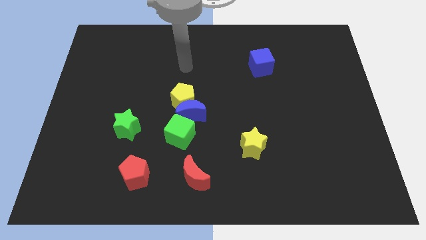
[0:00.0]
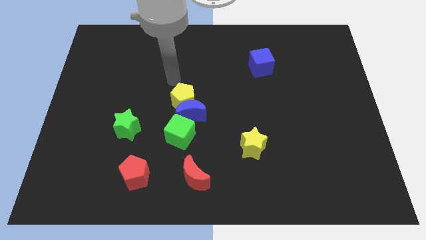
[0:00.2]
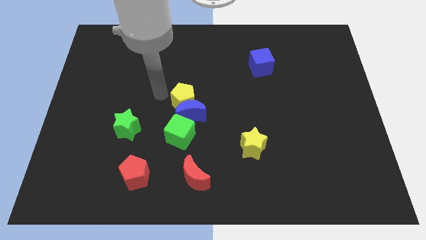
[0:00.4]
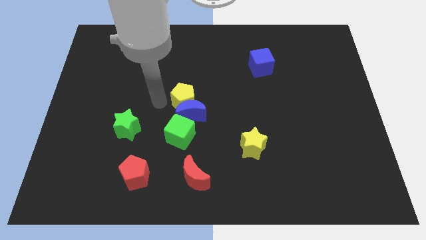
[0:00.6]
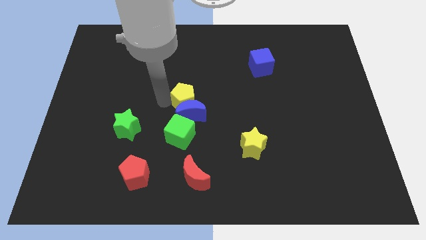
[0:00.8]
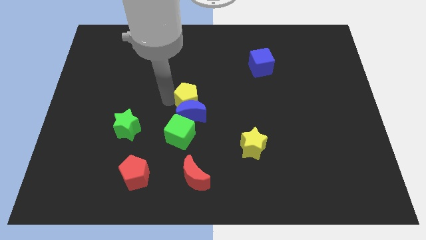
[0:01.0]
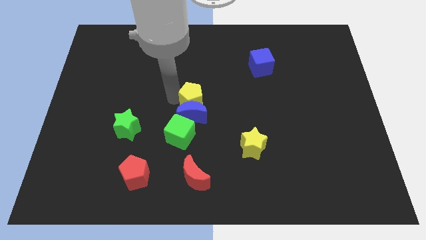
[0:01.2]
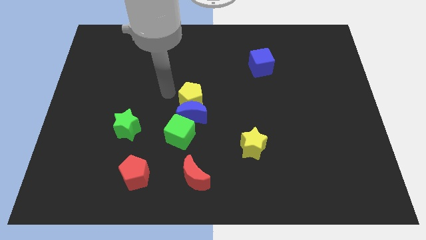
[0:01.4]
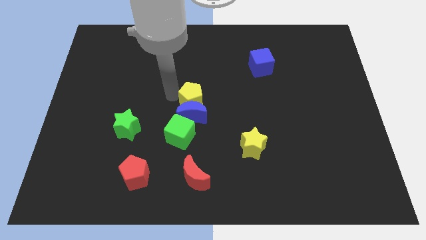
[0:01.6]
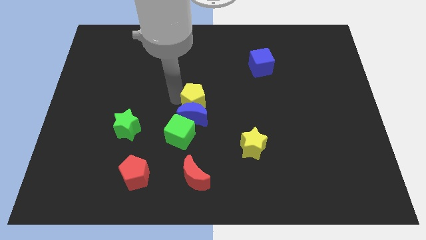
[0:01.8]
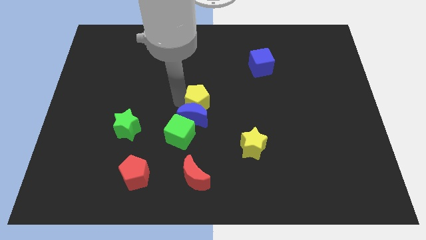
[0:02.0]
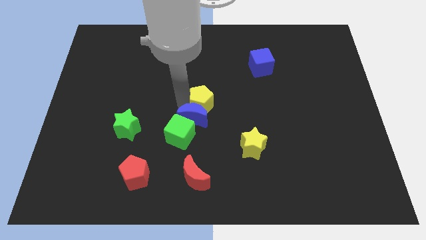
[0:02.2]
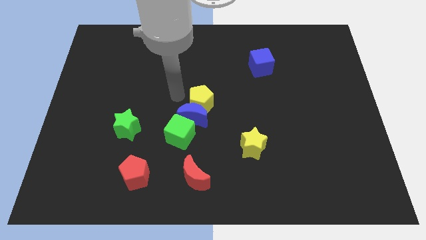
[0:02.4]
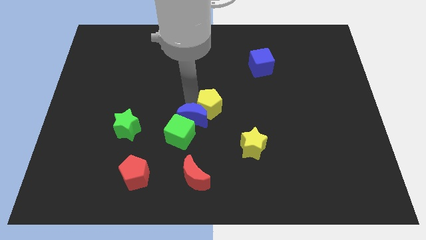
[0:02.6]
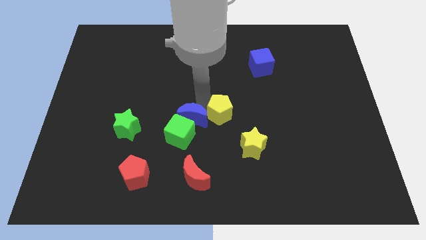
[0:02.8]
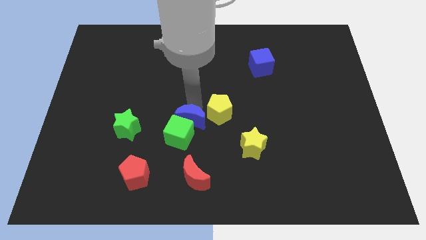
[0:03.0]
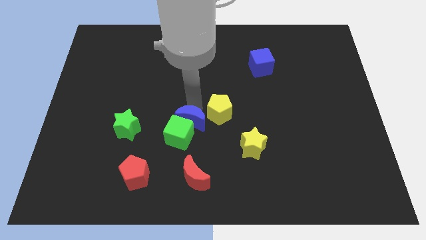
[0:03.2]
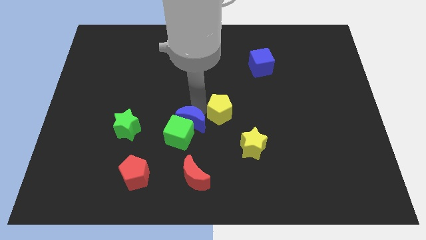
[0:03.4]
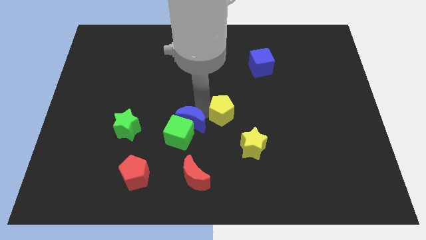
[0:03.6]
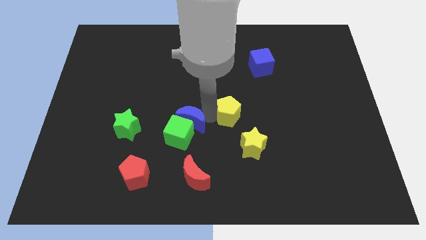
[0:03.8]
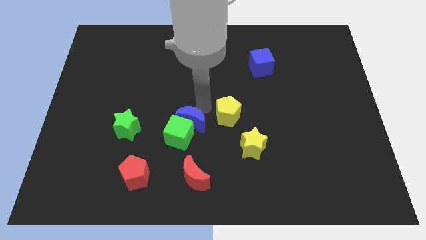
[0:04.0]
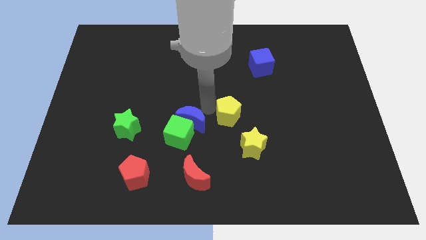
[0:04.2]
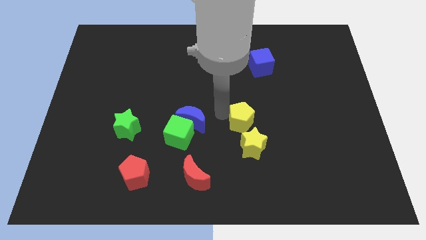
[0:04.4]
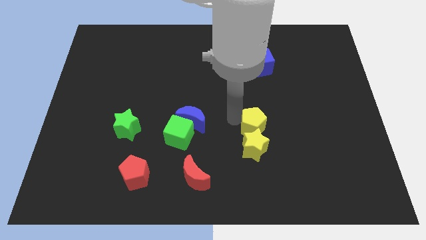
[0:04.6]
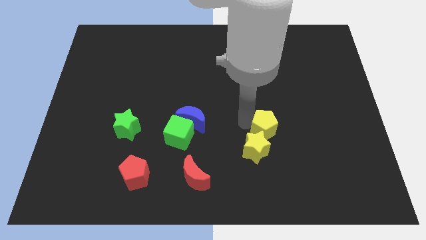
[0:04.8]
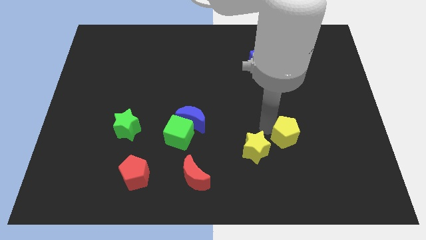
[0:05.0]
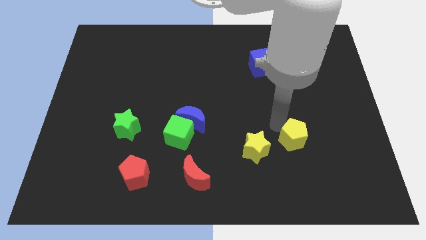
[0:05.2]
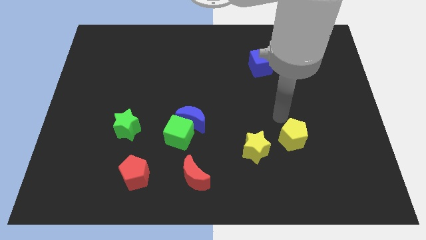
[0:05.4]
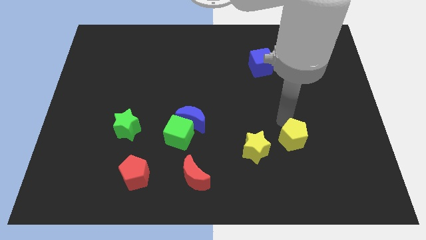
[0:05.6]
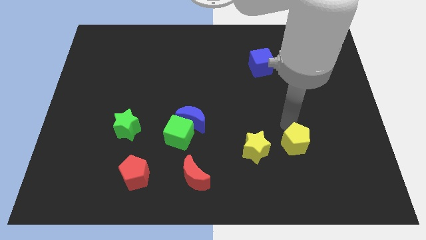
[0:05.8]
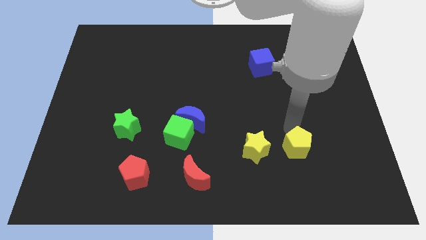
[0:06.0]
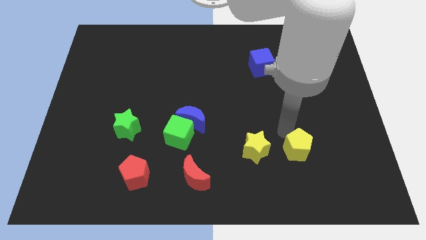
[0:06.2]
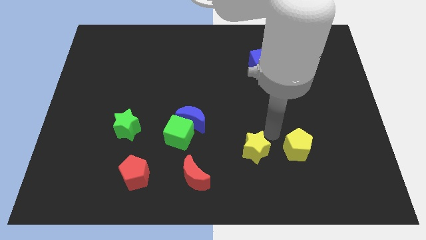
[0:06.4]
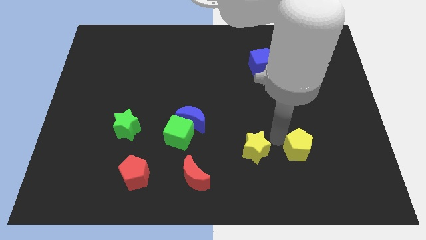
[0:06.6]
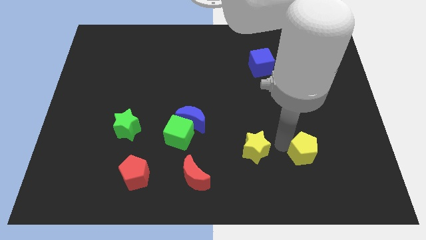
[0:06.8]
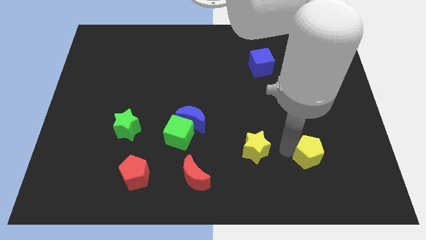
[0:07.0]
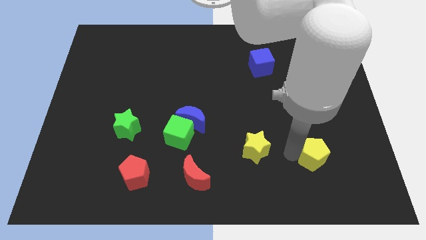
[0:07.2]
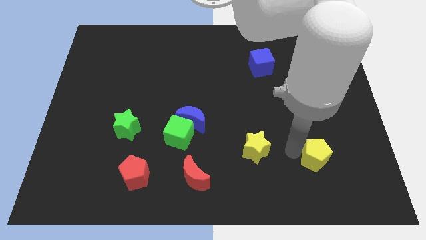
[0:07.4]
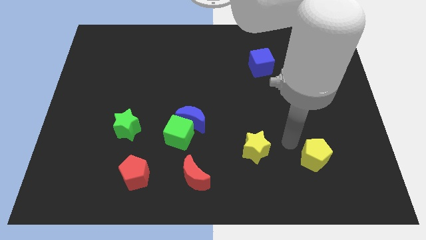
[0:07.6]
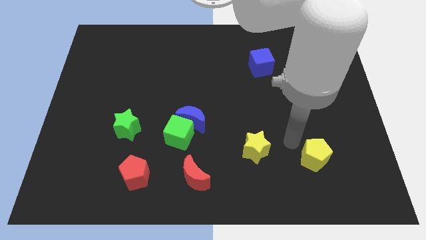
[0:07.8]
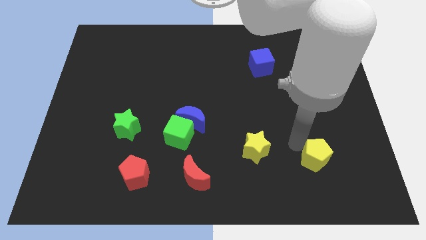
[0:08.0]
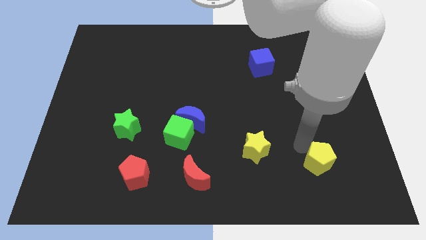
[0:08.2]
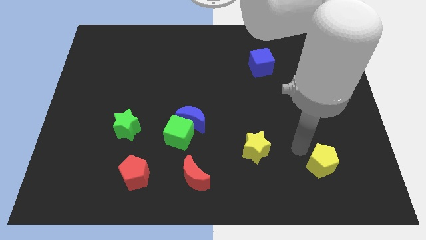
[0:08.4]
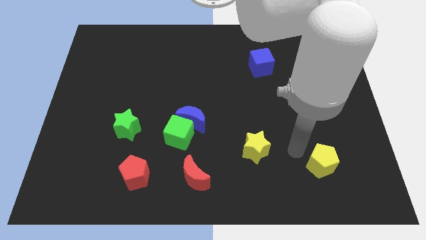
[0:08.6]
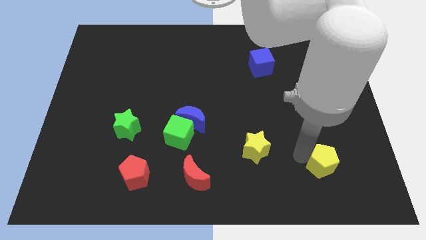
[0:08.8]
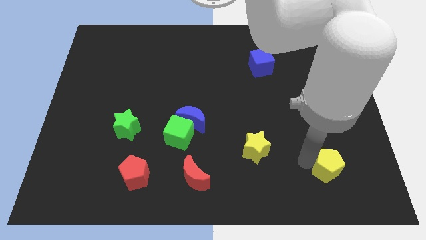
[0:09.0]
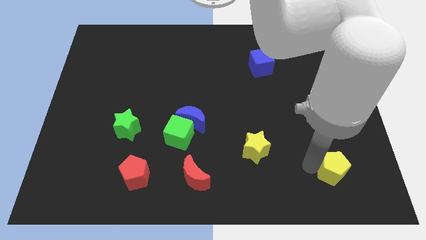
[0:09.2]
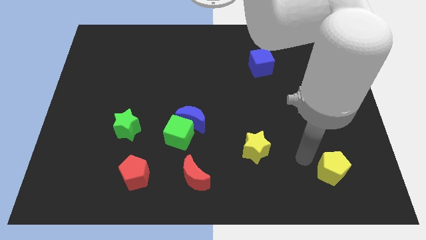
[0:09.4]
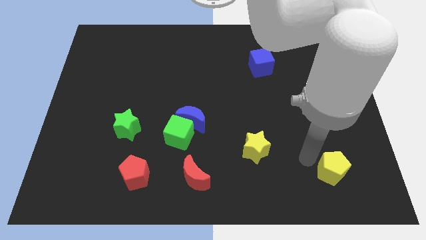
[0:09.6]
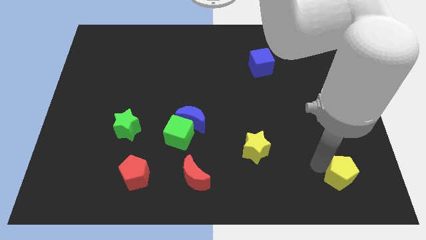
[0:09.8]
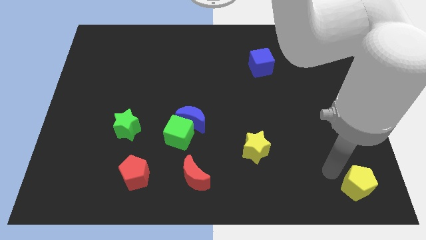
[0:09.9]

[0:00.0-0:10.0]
put the yellow pentagon to the bottom right

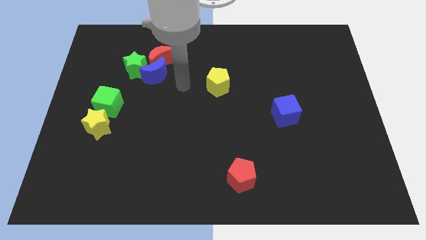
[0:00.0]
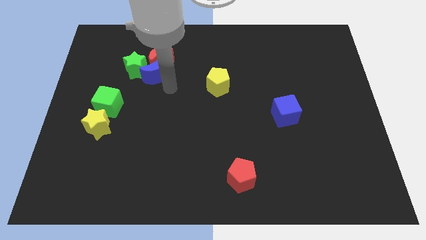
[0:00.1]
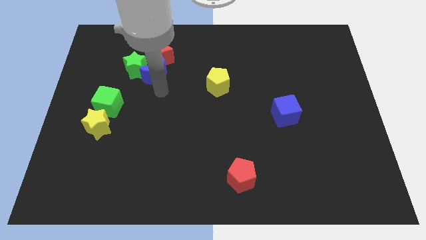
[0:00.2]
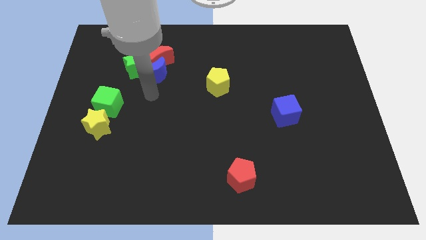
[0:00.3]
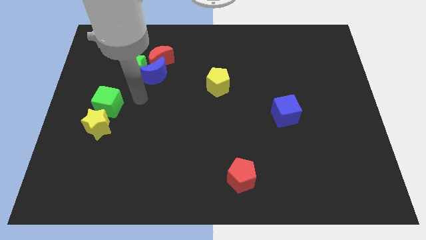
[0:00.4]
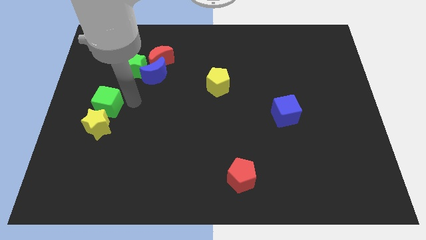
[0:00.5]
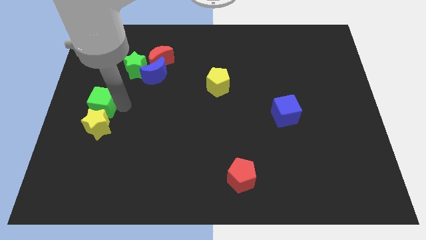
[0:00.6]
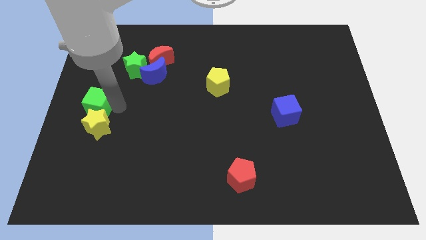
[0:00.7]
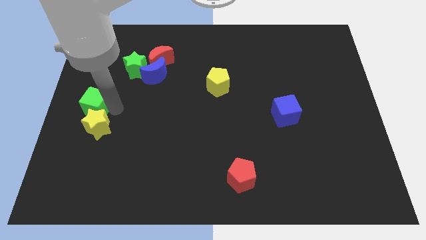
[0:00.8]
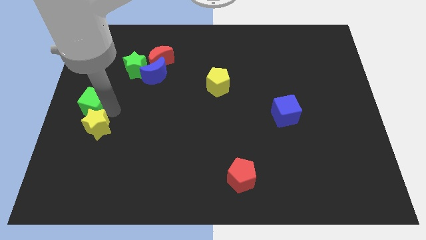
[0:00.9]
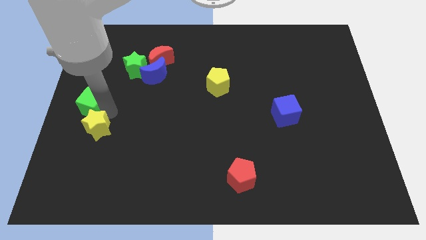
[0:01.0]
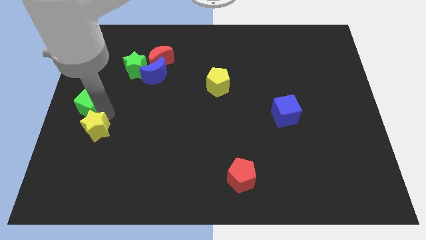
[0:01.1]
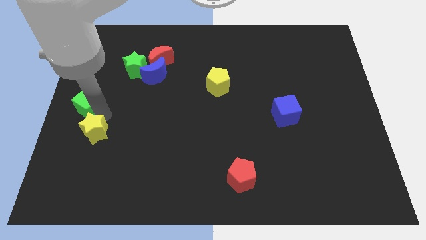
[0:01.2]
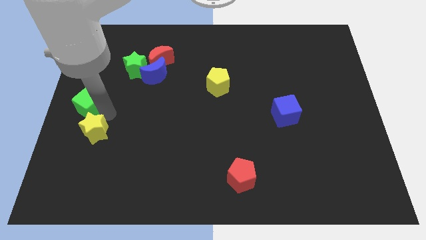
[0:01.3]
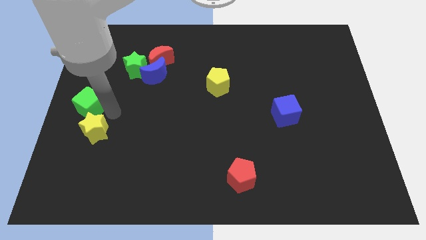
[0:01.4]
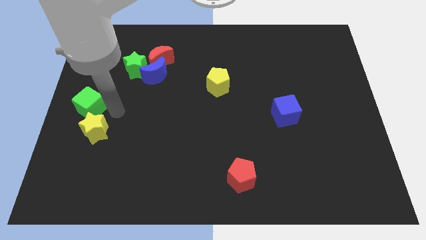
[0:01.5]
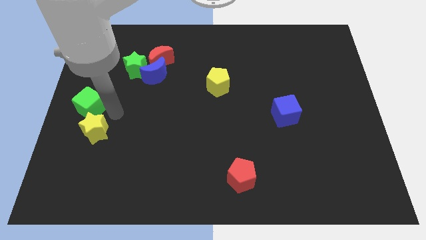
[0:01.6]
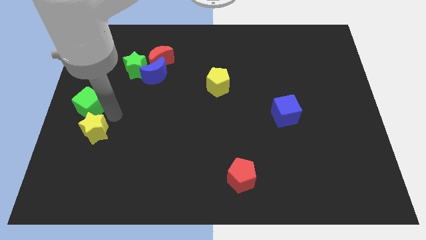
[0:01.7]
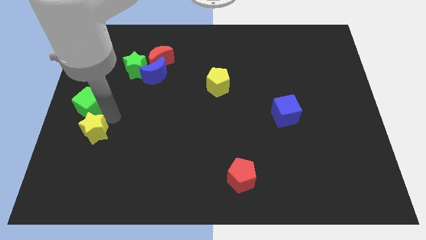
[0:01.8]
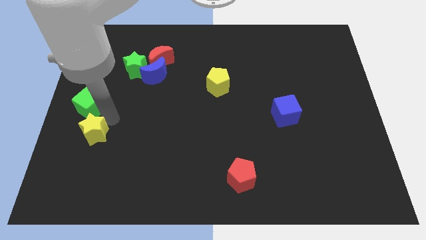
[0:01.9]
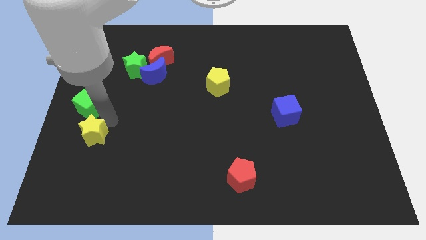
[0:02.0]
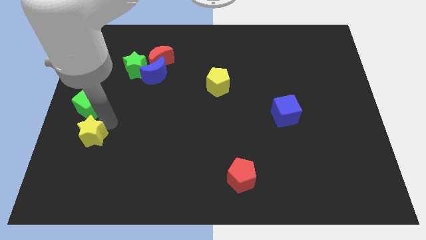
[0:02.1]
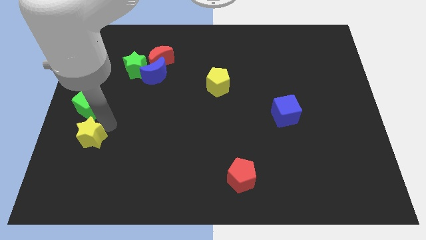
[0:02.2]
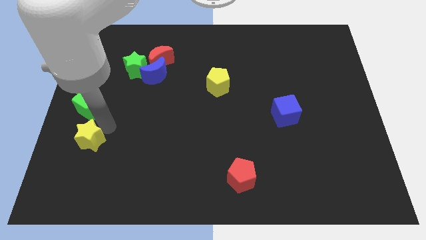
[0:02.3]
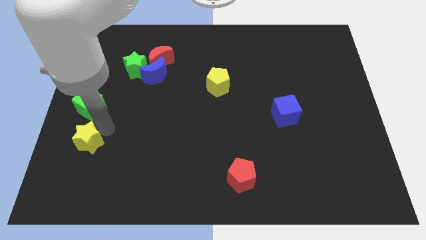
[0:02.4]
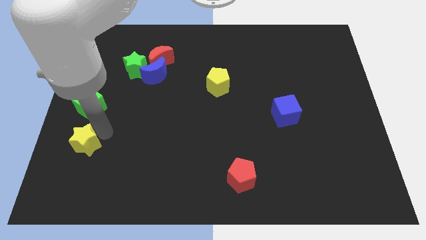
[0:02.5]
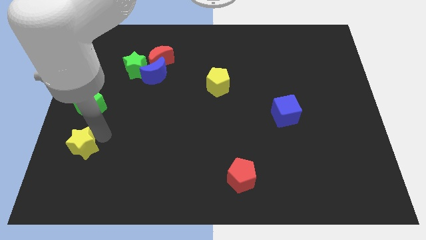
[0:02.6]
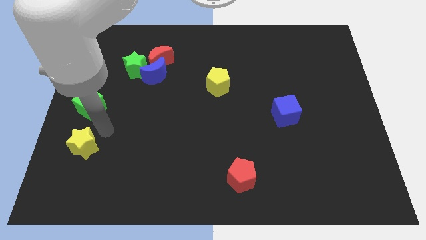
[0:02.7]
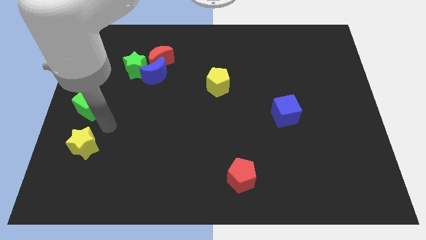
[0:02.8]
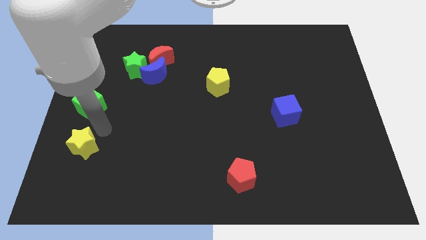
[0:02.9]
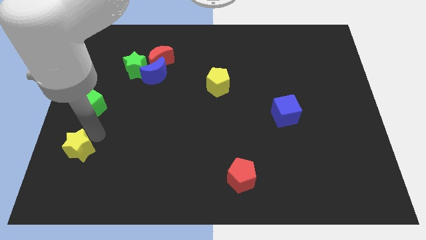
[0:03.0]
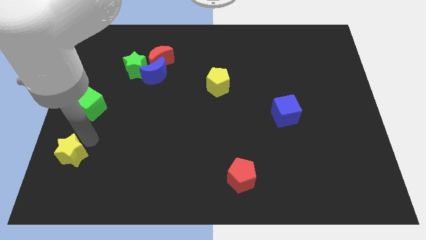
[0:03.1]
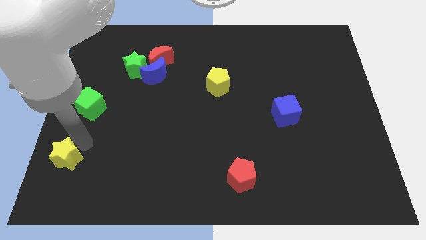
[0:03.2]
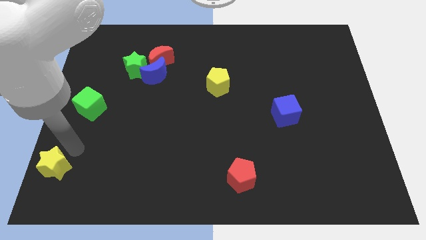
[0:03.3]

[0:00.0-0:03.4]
put the yellow star to the bottom left corner
